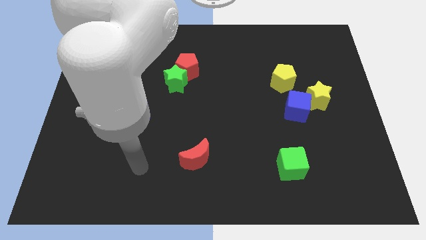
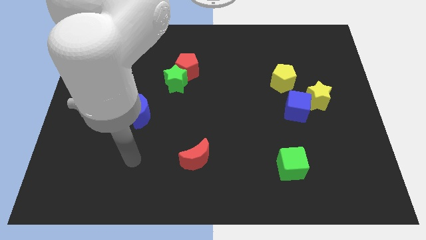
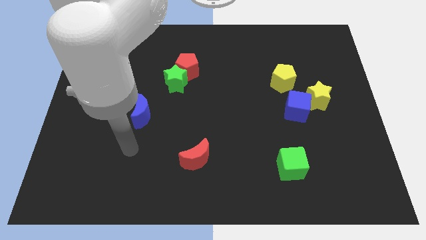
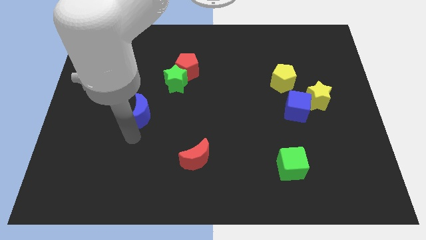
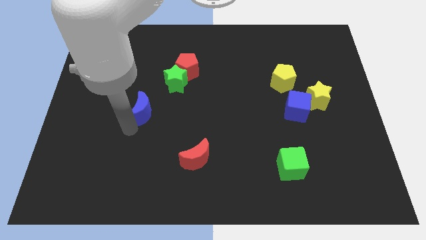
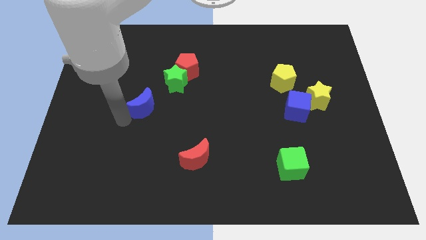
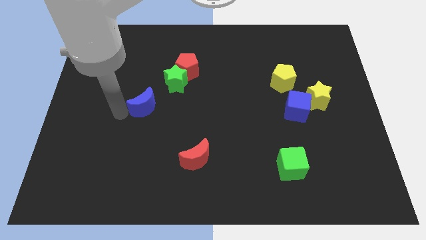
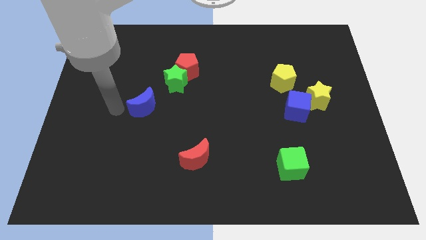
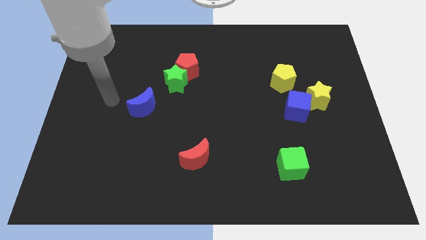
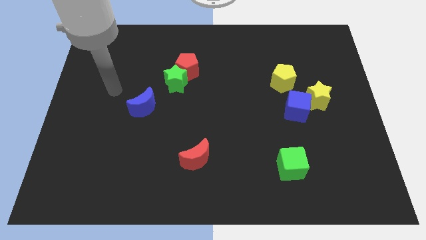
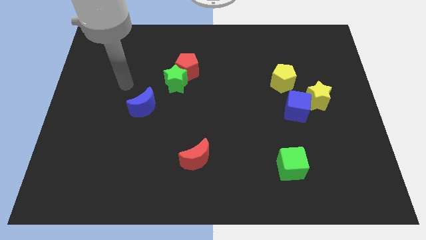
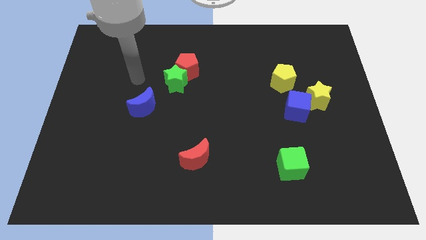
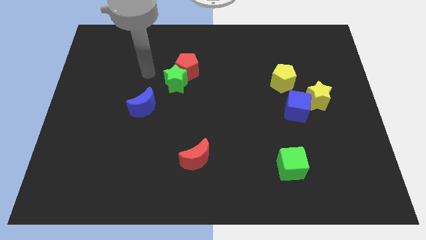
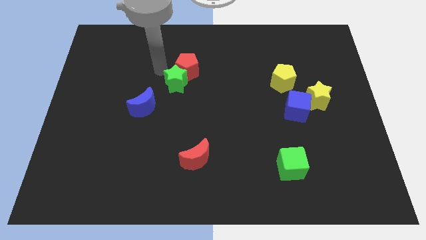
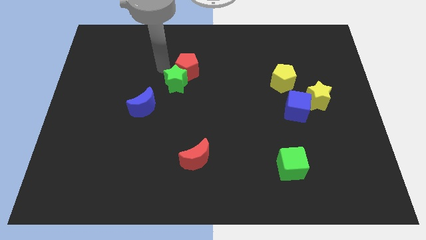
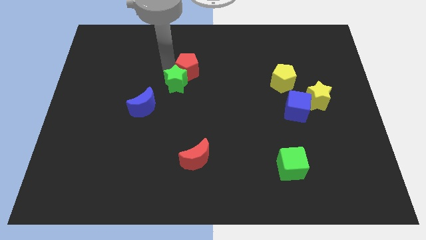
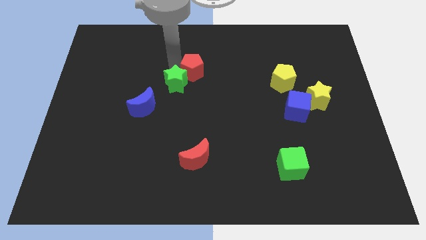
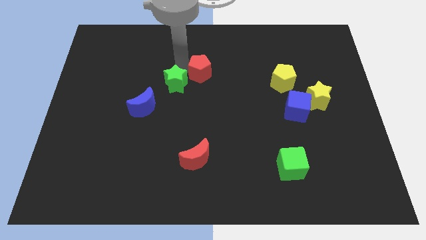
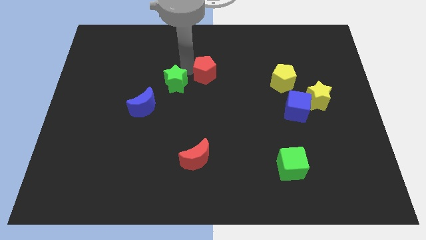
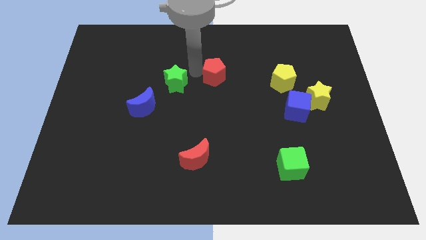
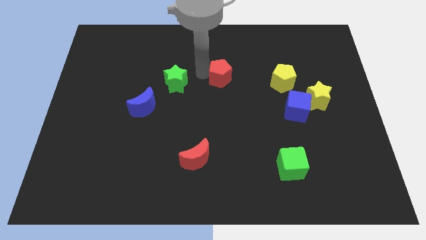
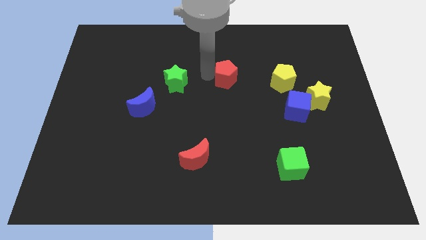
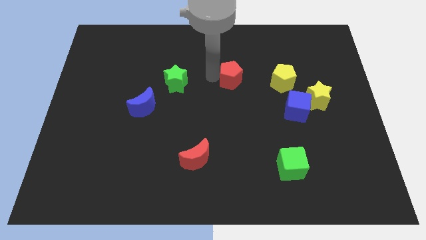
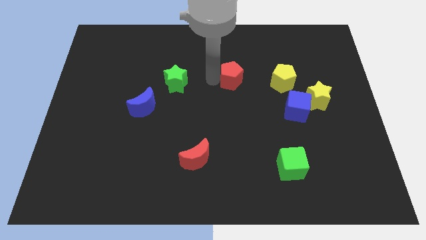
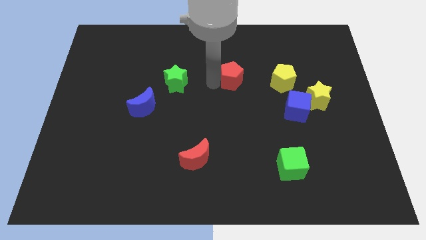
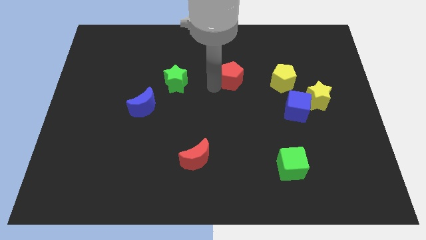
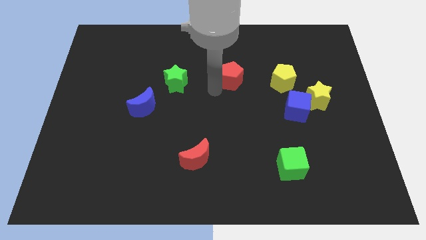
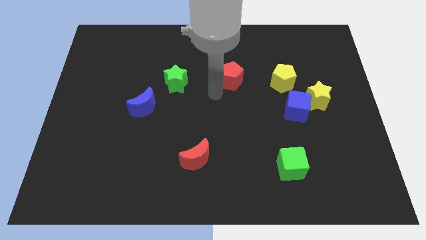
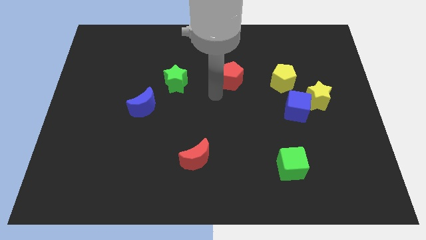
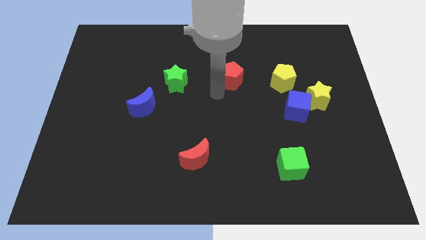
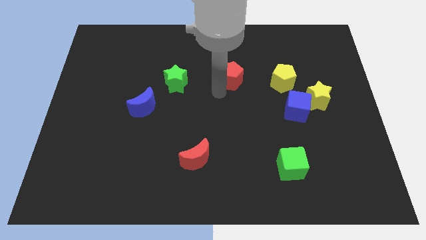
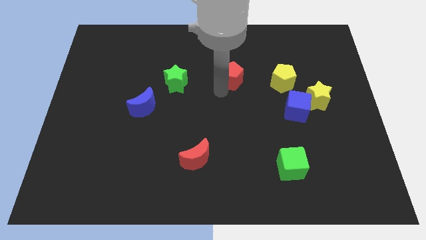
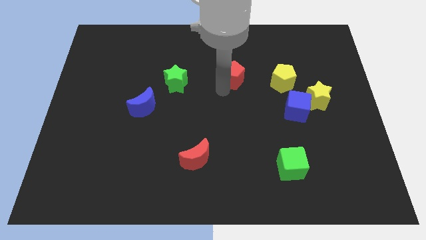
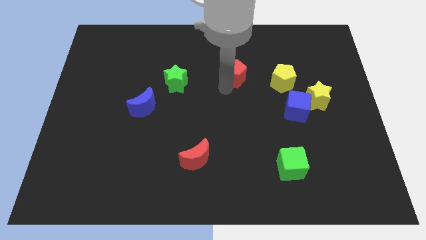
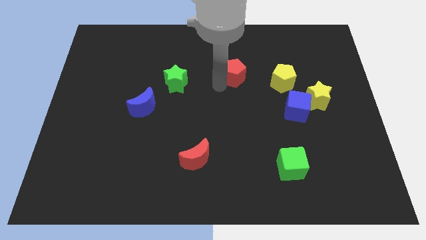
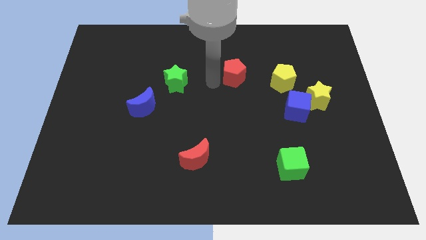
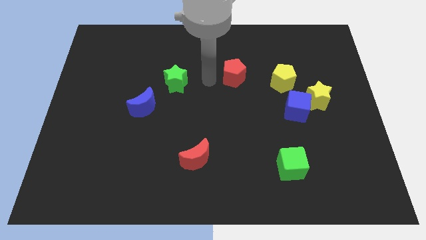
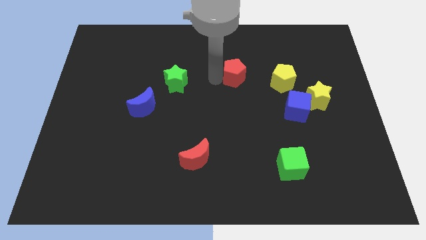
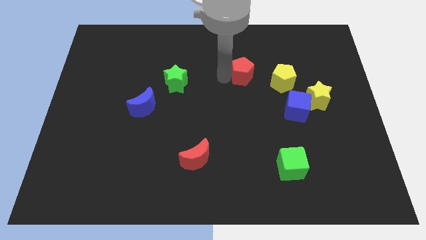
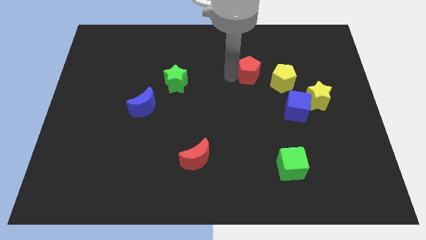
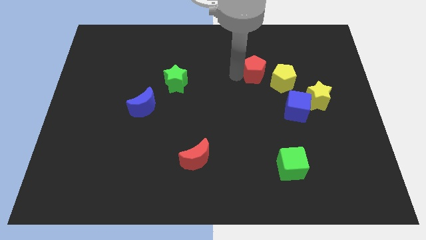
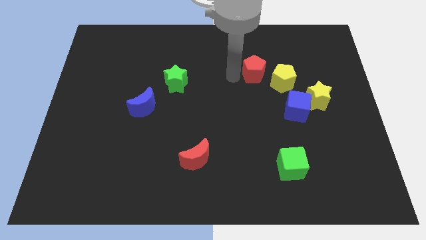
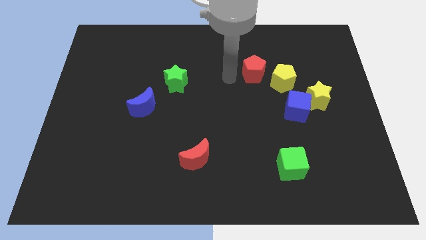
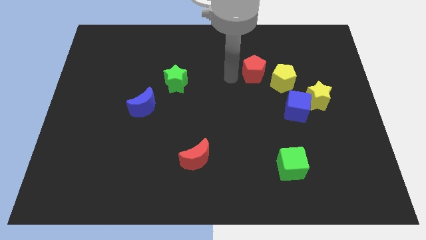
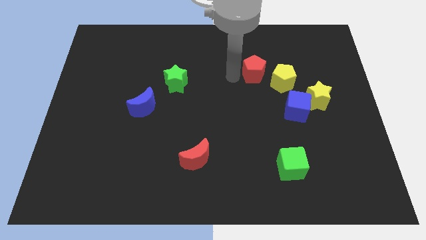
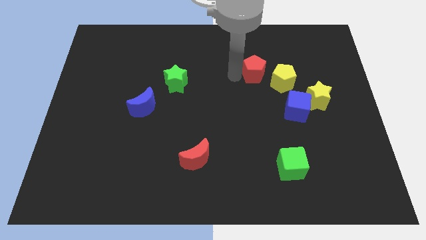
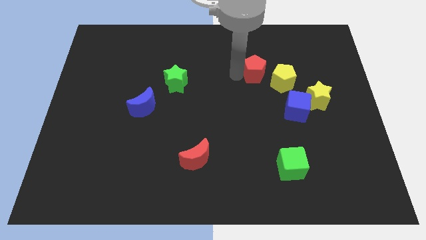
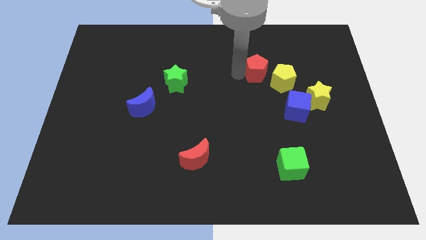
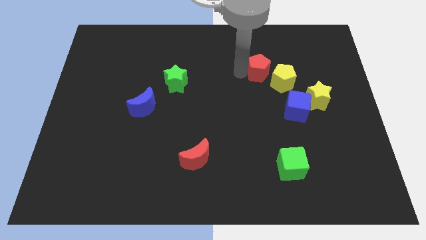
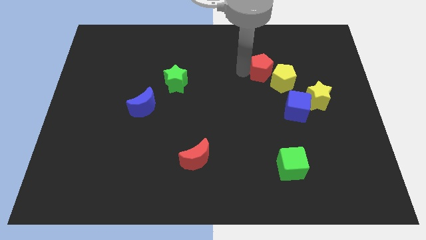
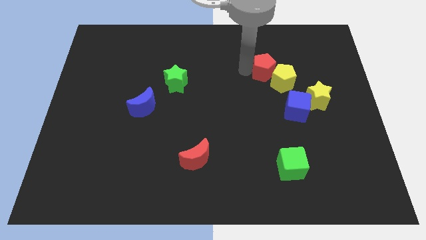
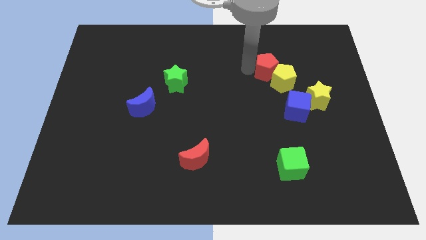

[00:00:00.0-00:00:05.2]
move the red pentagon to the right

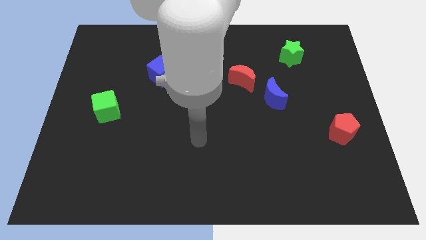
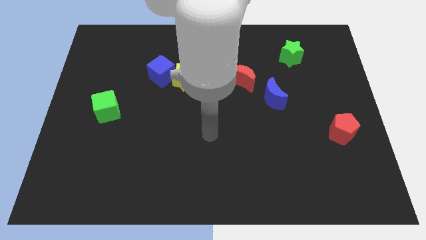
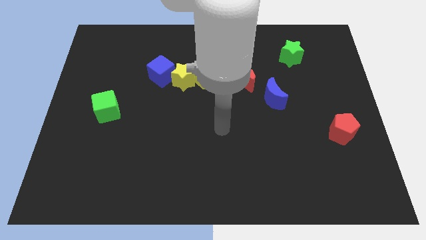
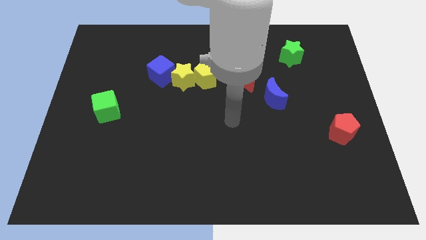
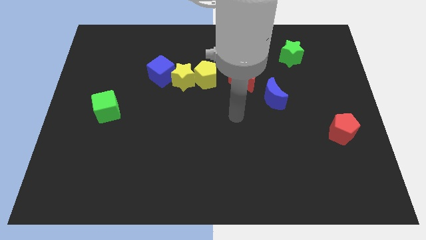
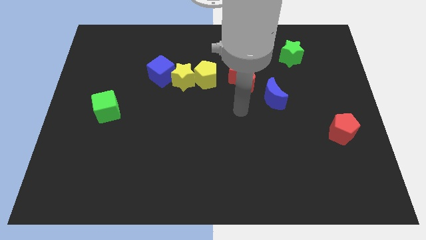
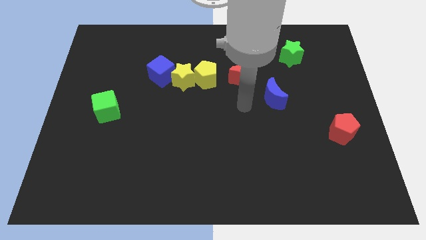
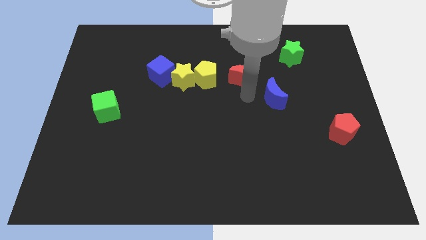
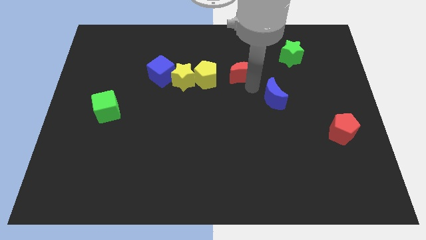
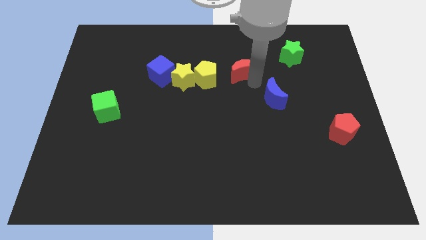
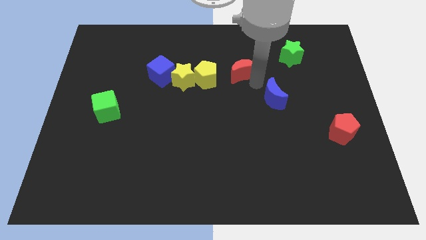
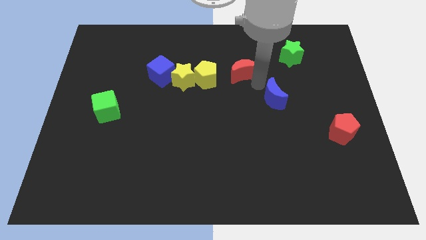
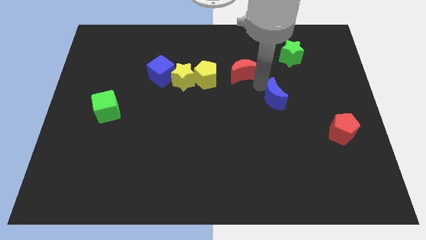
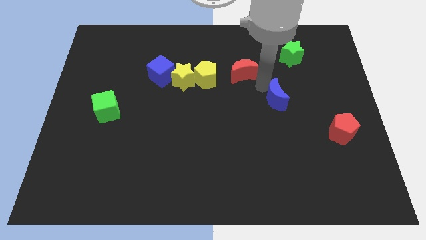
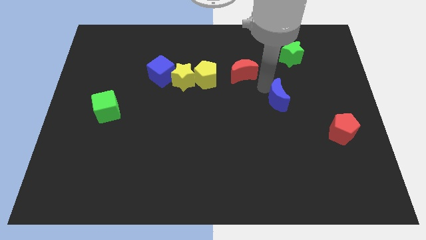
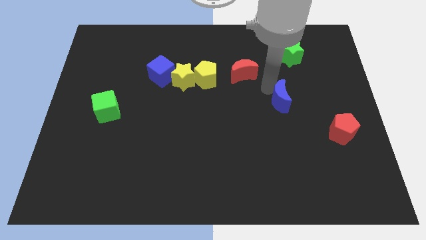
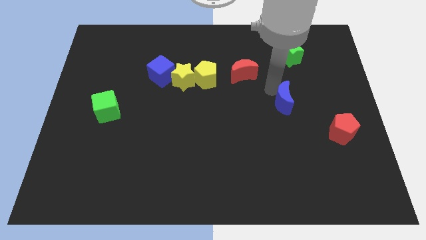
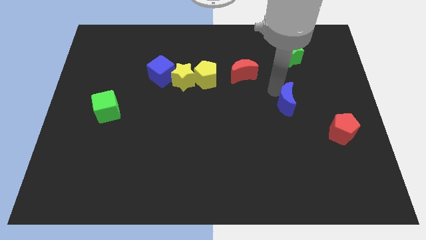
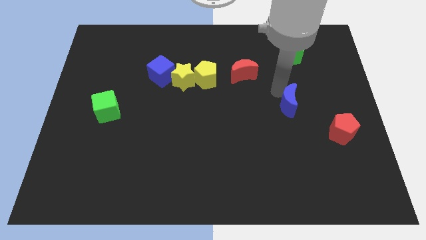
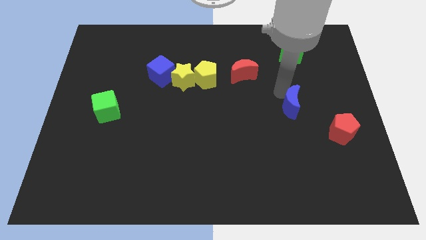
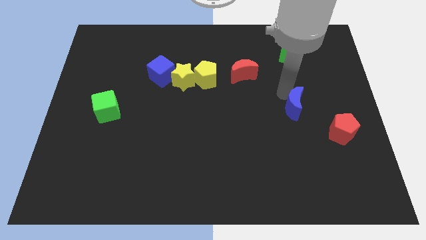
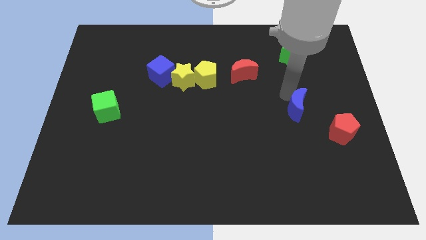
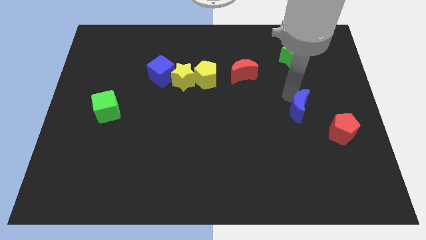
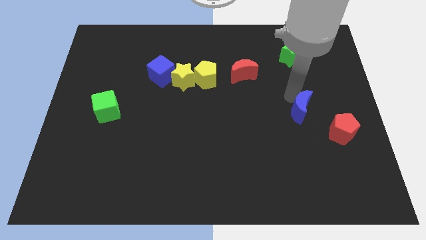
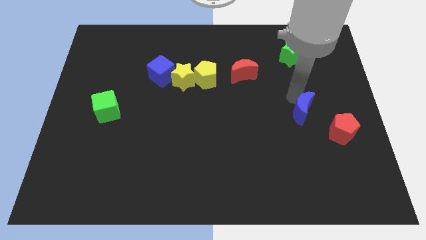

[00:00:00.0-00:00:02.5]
push the blue moon down and to the right diagonally a little

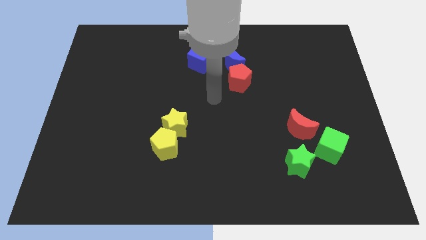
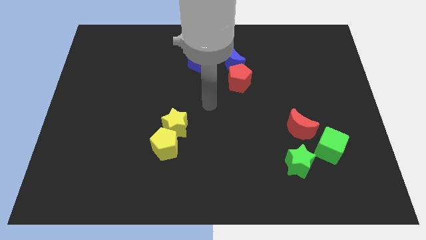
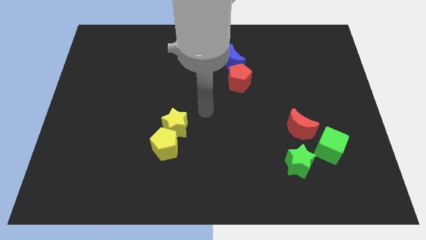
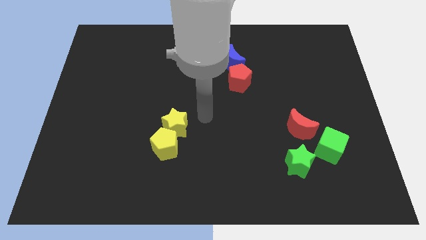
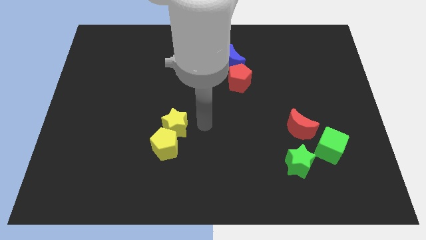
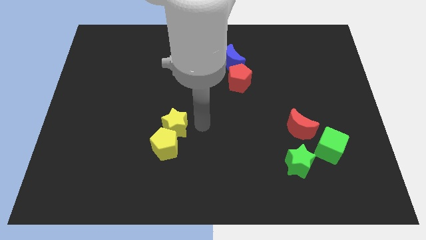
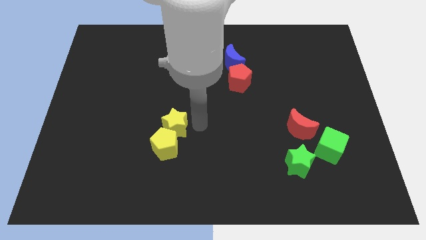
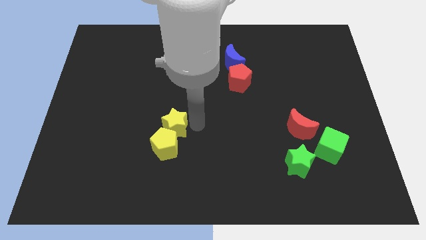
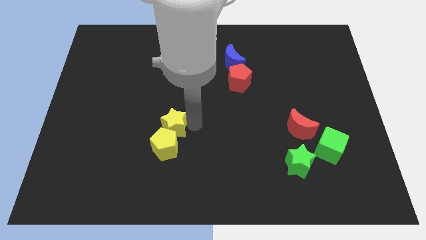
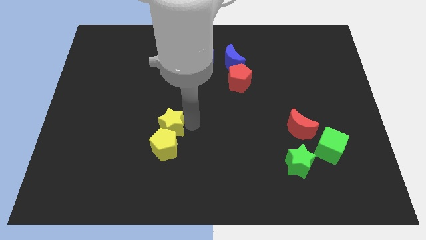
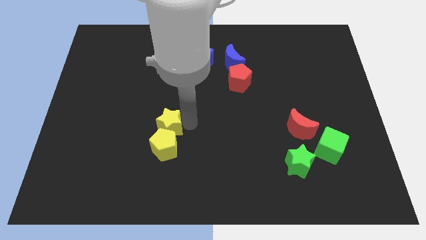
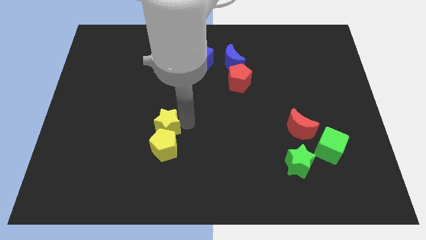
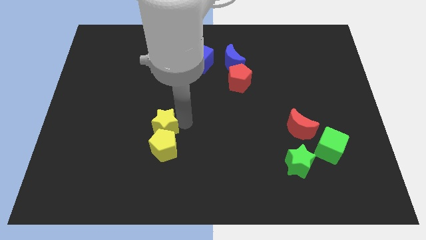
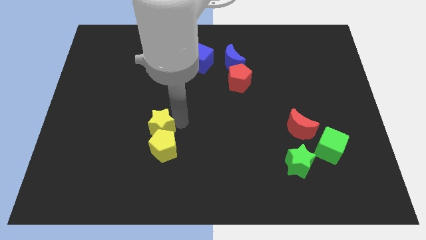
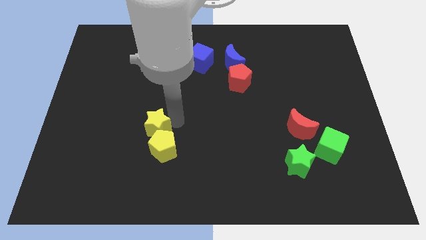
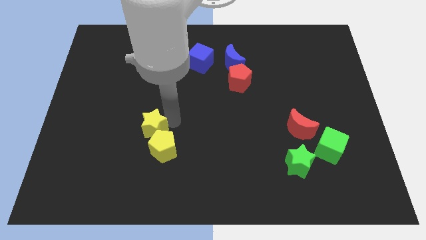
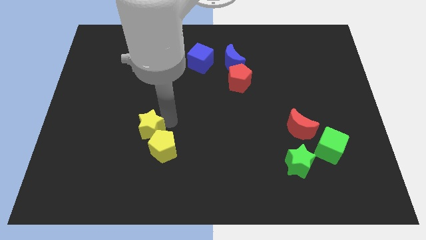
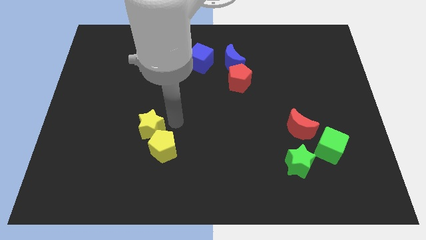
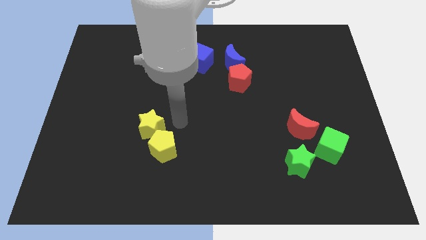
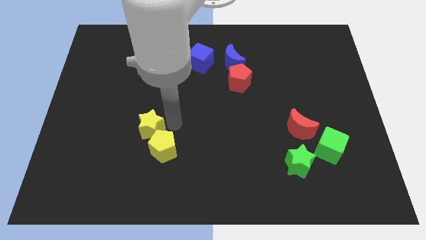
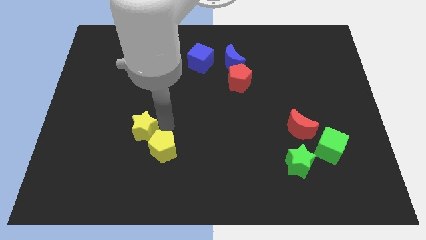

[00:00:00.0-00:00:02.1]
slide the yellow star a bit to the left
